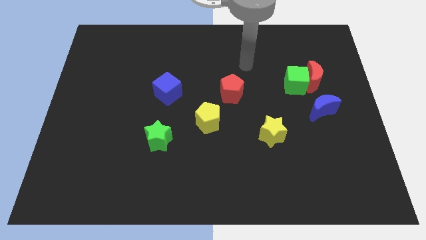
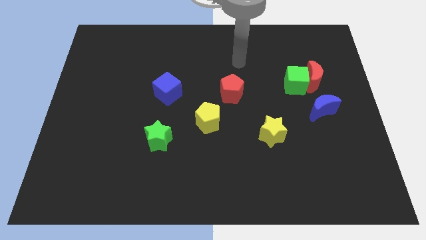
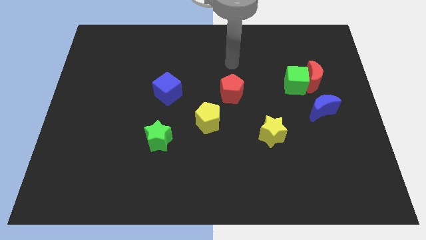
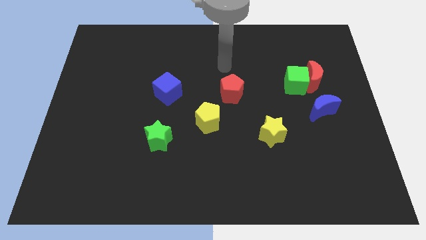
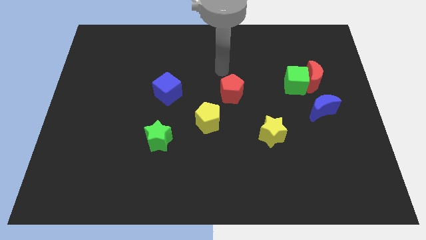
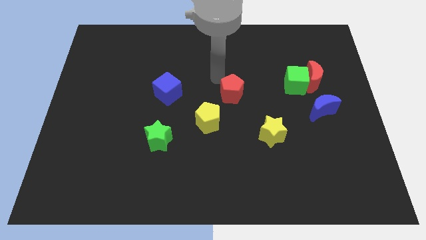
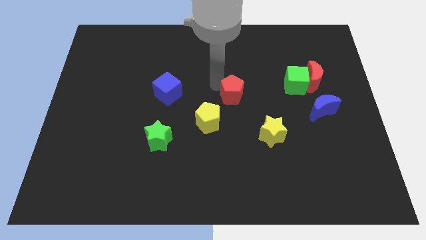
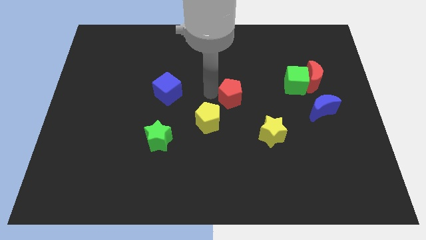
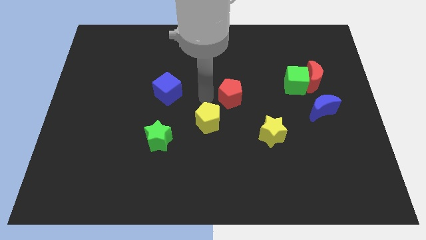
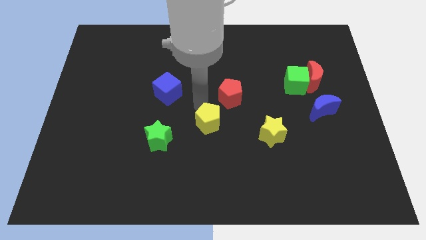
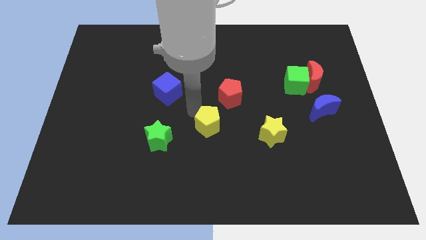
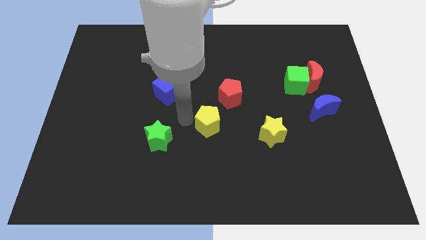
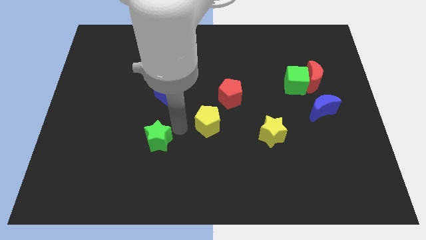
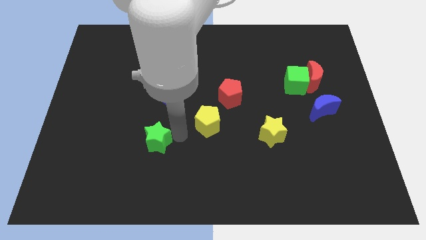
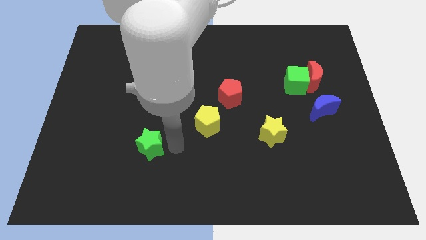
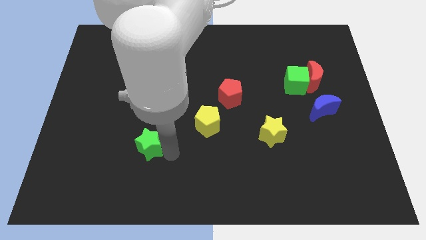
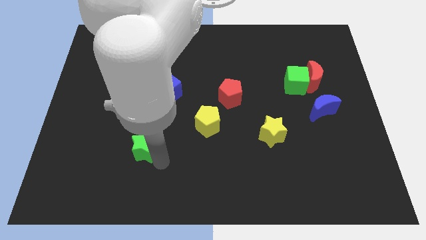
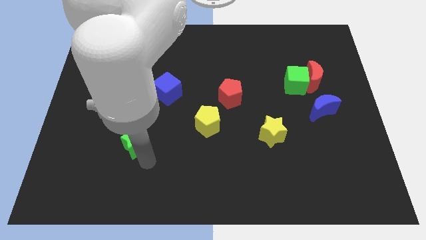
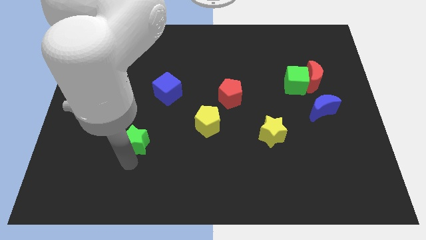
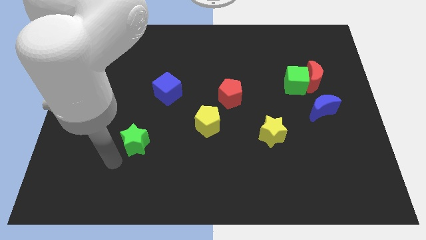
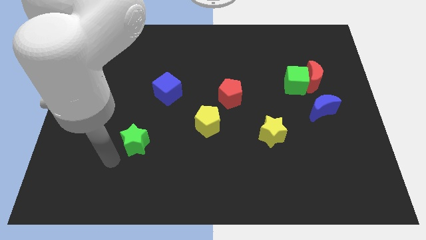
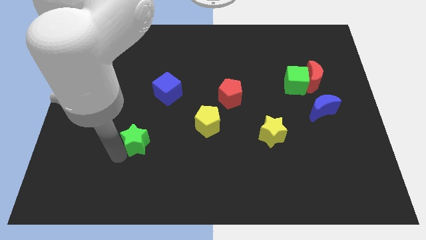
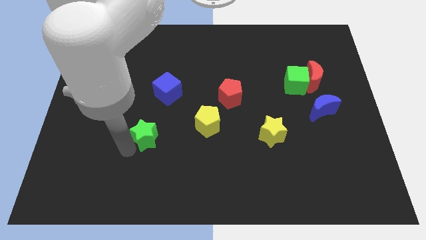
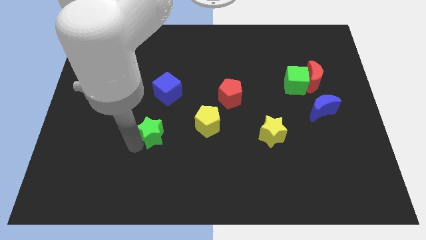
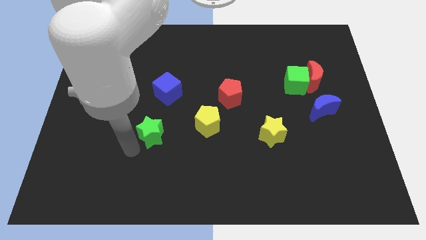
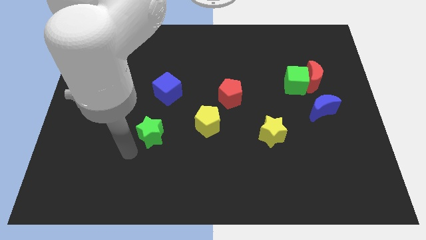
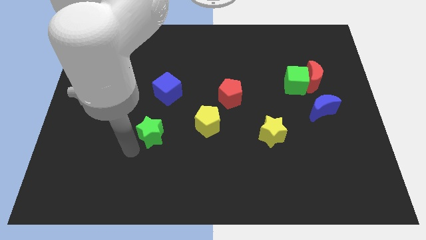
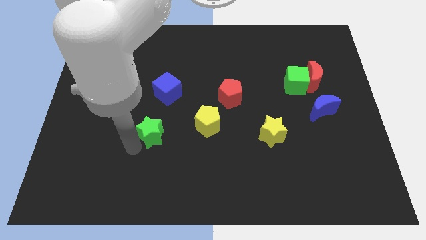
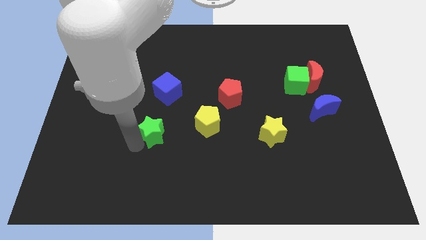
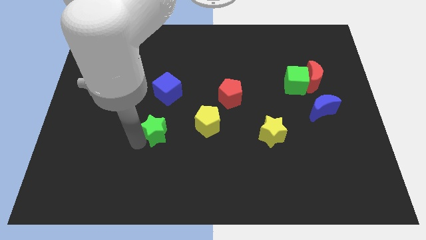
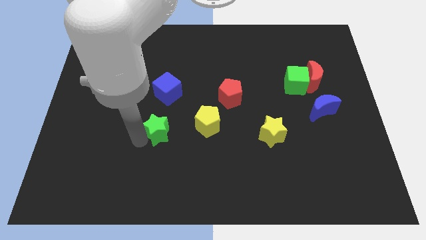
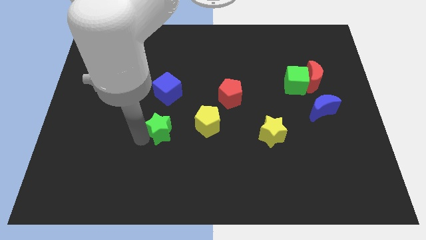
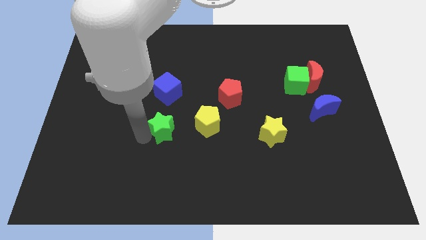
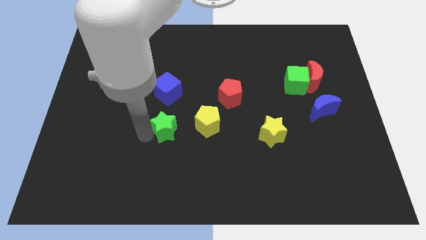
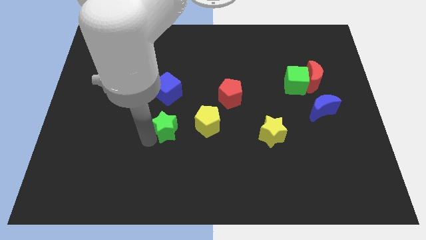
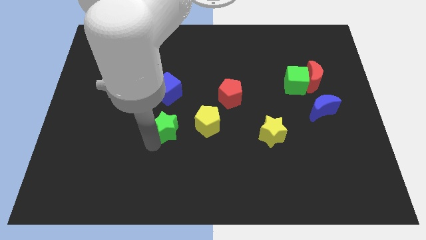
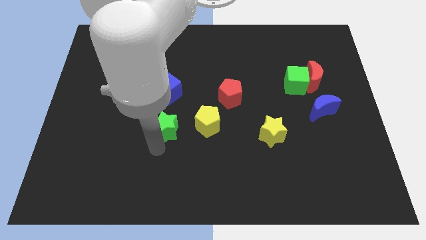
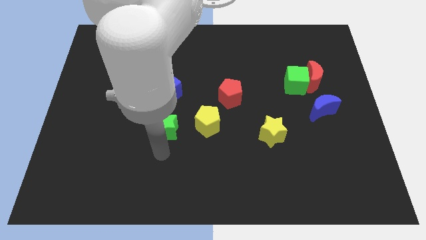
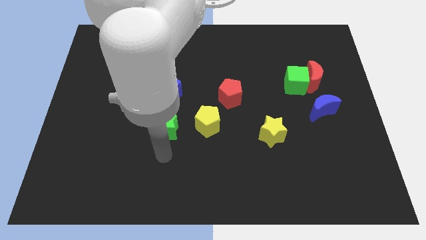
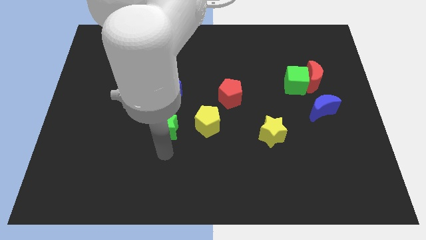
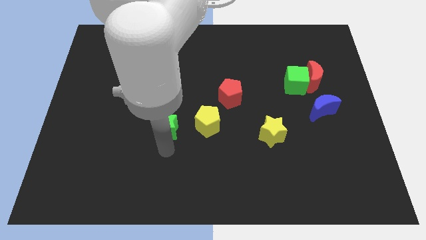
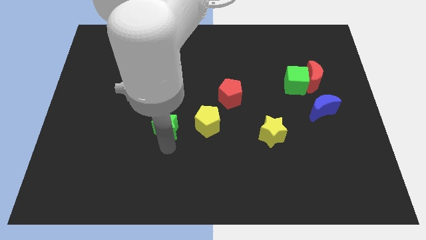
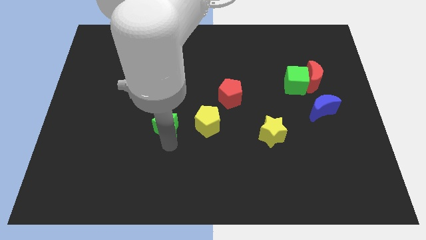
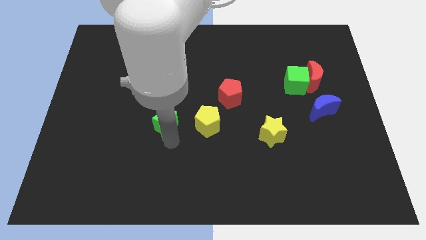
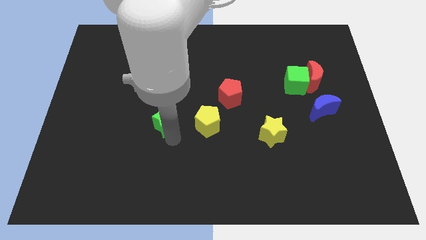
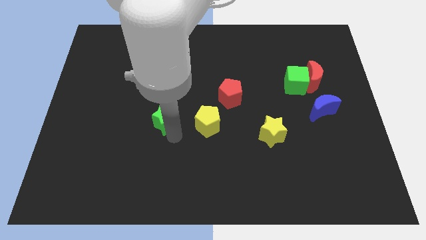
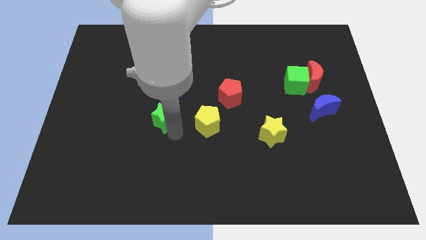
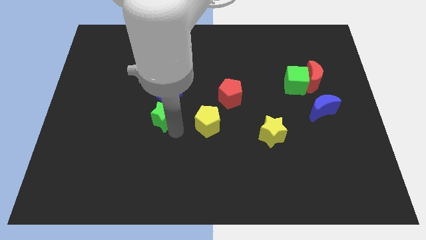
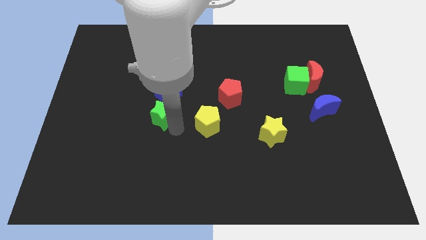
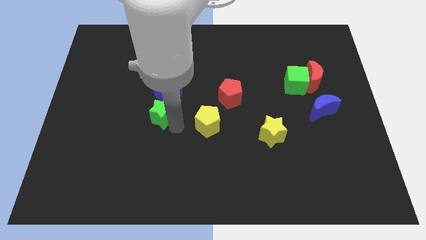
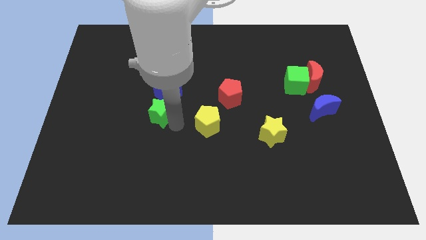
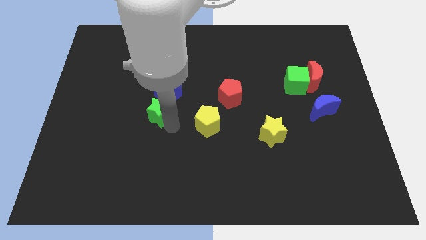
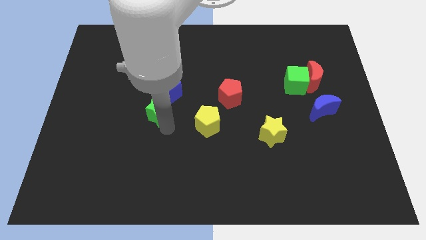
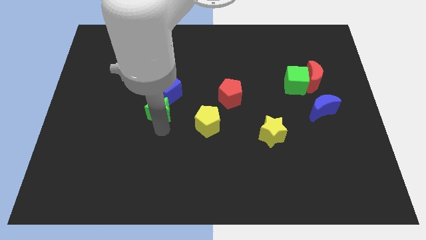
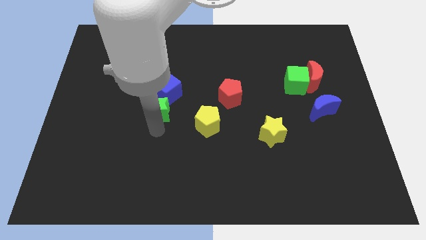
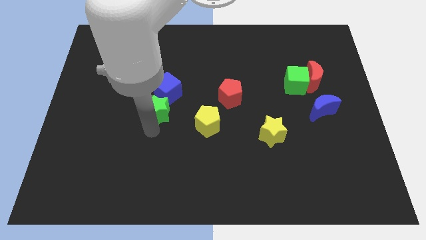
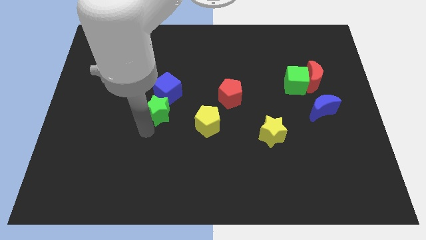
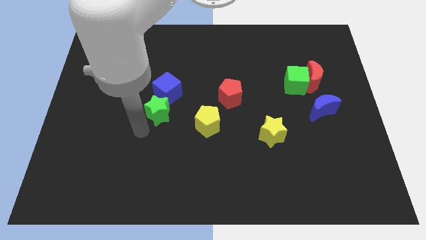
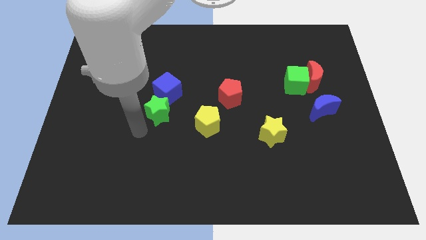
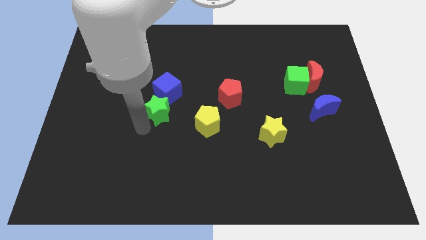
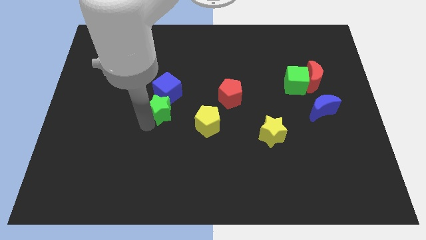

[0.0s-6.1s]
slide the green star close to the blue cube

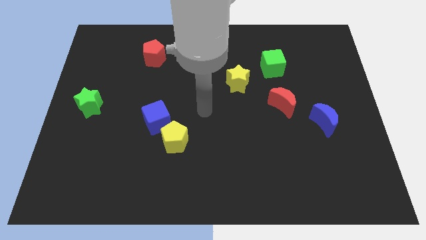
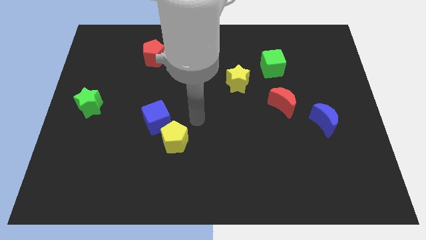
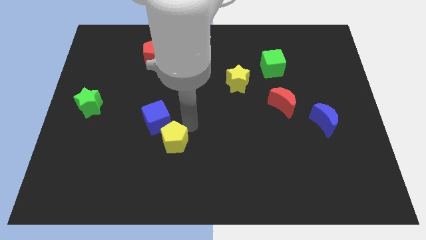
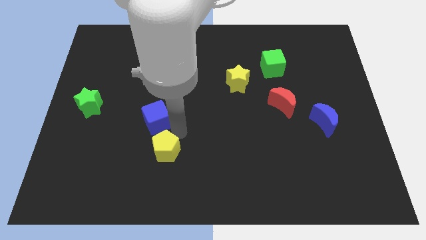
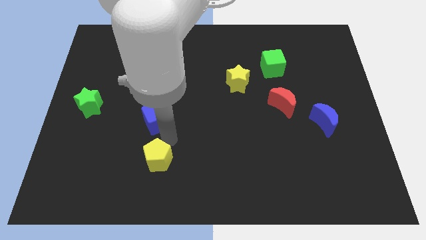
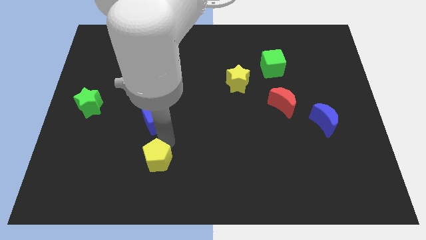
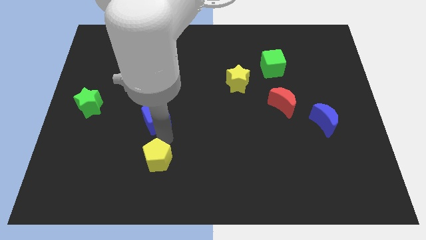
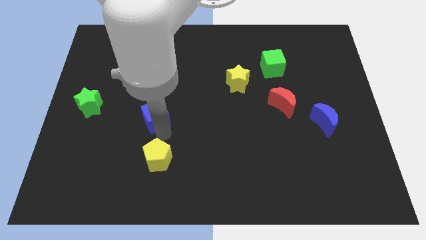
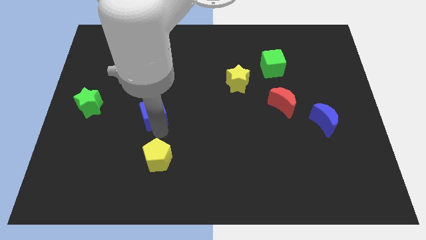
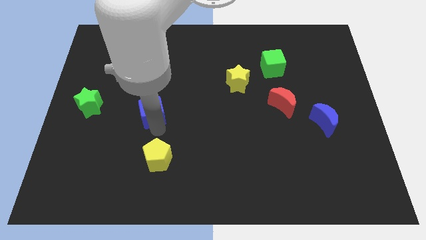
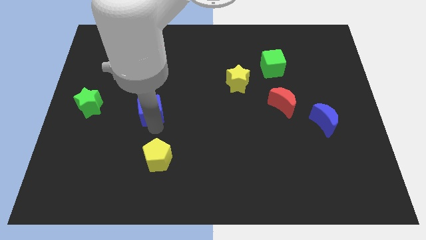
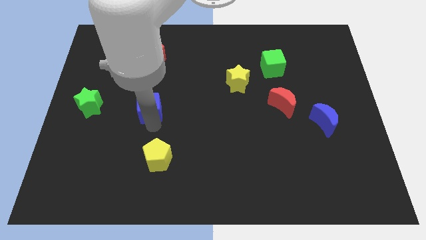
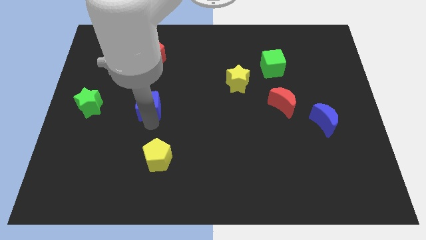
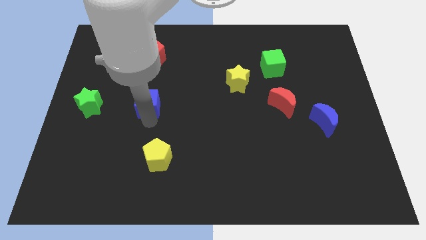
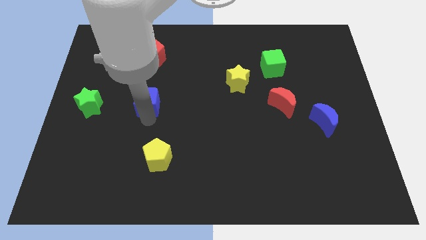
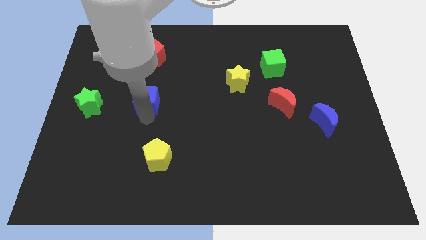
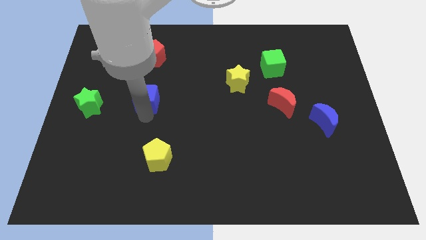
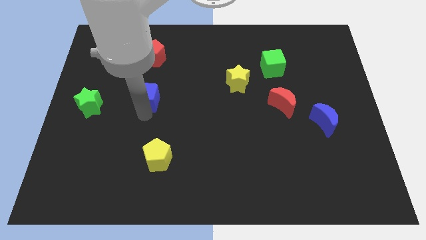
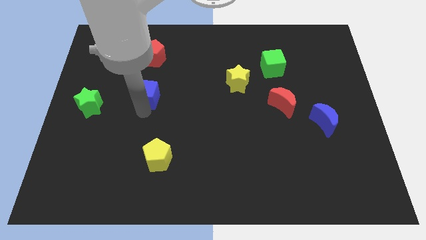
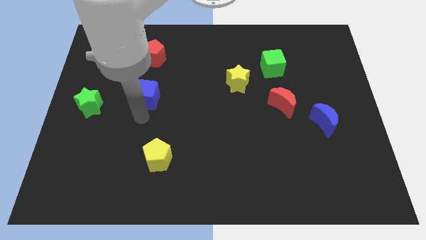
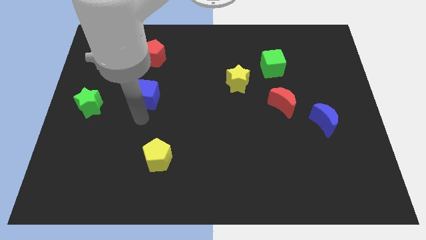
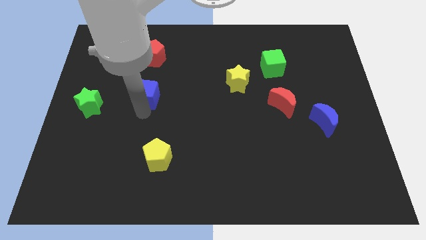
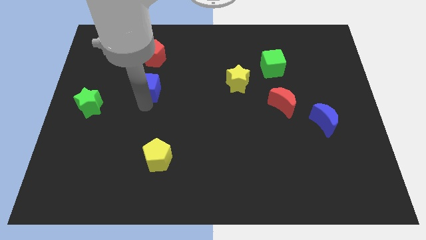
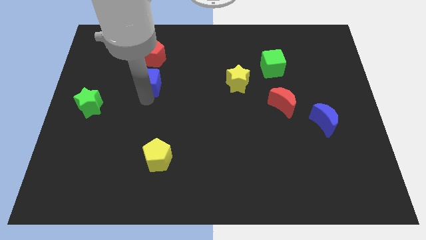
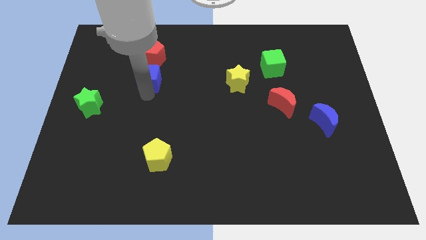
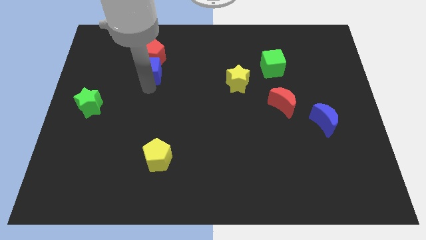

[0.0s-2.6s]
push the blue cube towards the red pentagon
